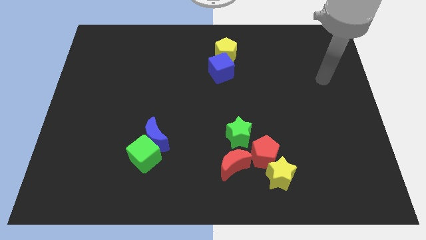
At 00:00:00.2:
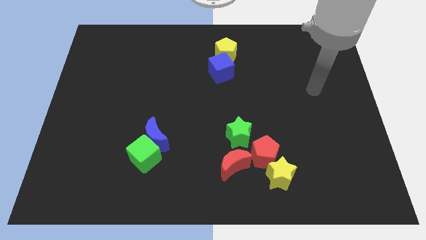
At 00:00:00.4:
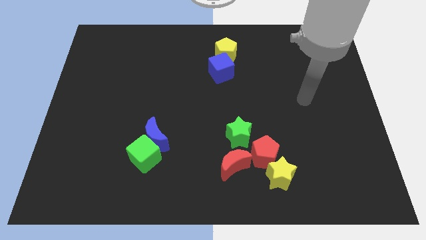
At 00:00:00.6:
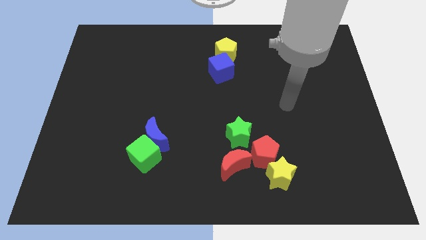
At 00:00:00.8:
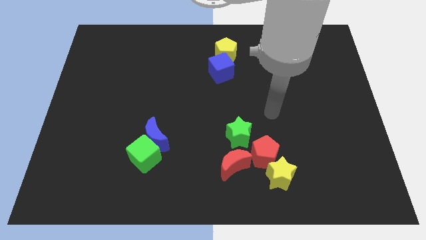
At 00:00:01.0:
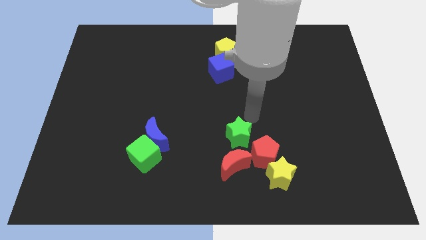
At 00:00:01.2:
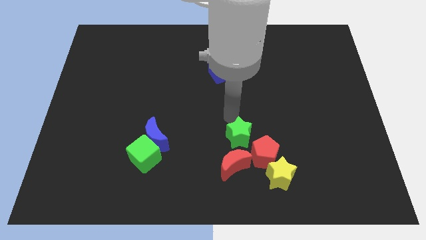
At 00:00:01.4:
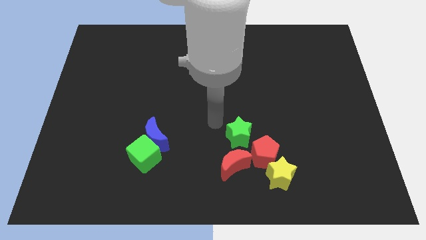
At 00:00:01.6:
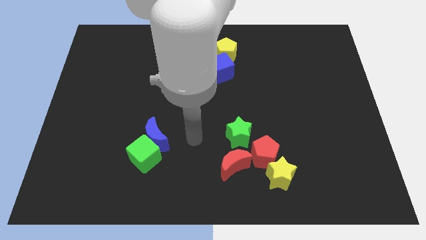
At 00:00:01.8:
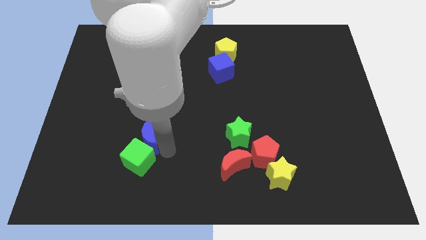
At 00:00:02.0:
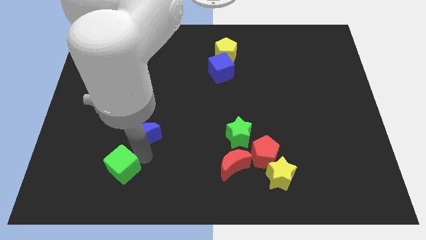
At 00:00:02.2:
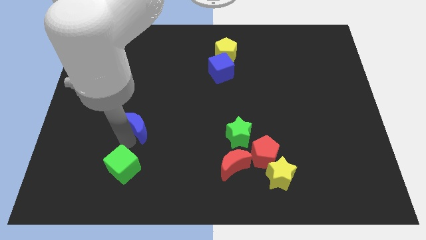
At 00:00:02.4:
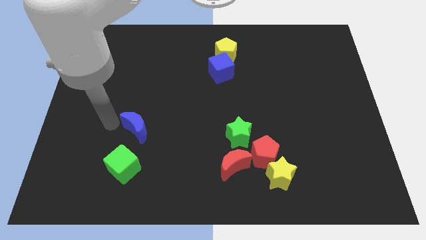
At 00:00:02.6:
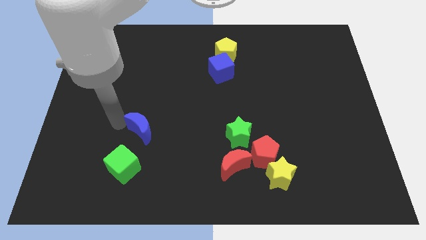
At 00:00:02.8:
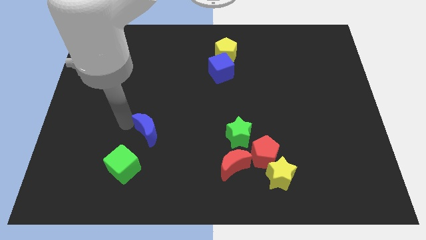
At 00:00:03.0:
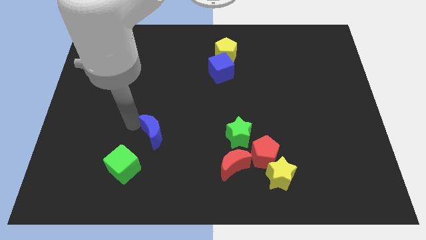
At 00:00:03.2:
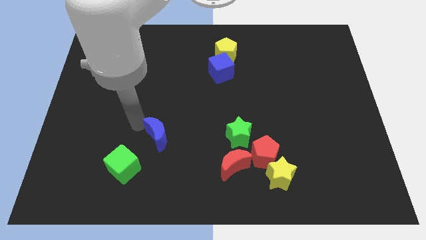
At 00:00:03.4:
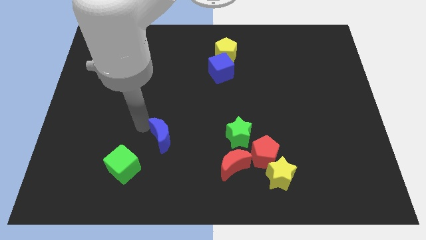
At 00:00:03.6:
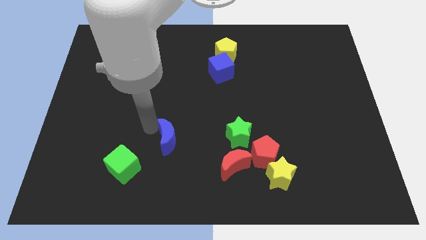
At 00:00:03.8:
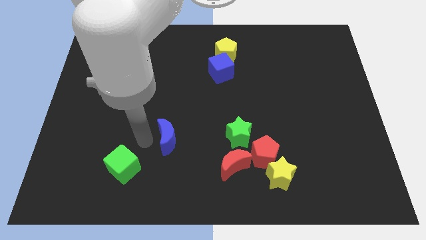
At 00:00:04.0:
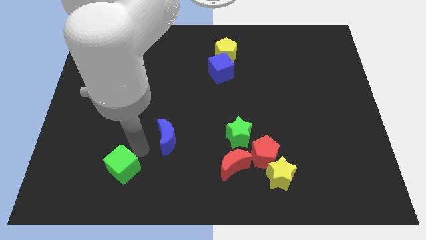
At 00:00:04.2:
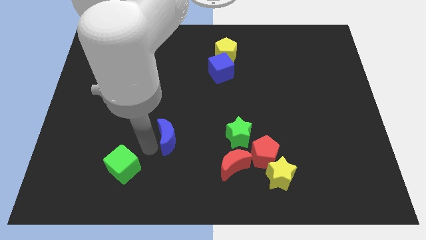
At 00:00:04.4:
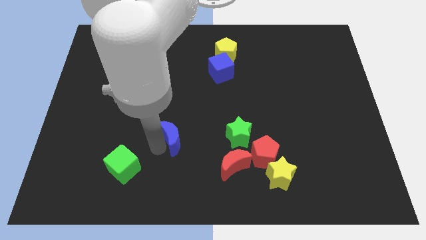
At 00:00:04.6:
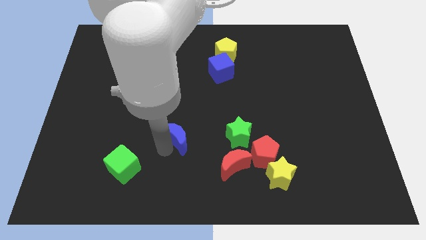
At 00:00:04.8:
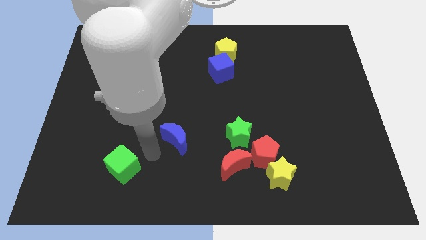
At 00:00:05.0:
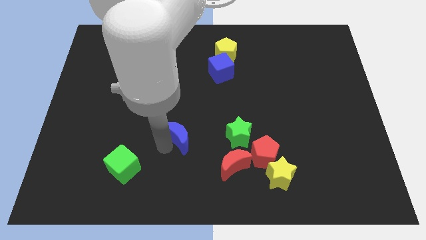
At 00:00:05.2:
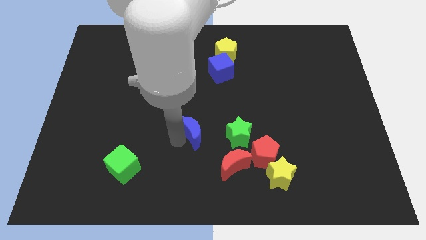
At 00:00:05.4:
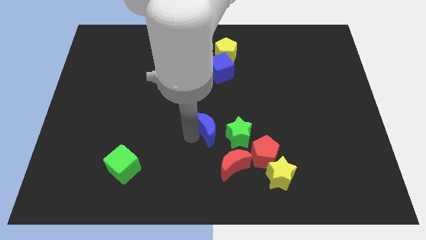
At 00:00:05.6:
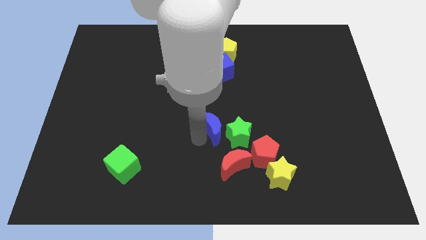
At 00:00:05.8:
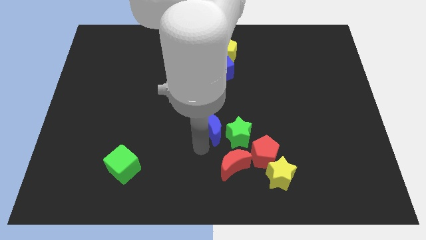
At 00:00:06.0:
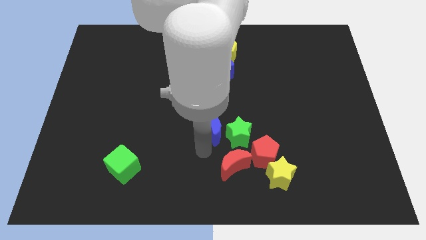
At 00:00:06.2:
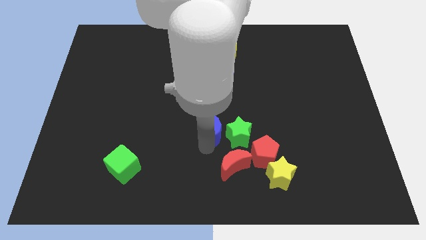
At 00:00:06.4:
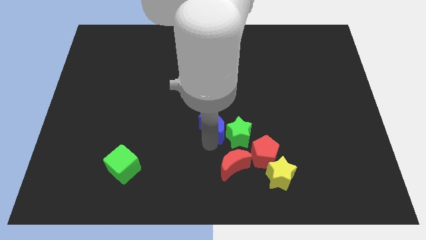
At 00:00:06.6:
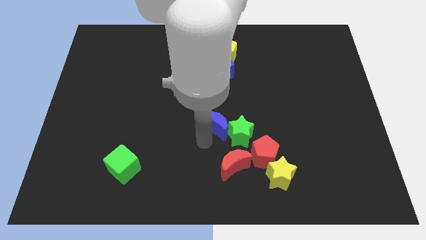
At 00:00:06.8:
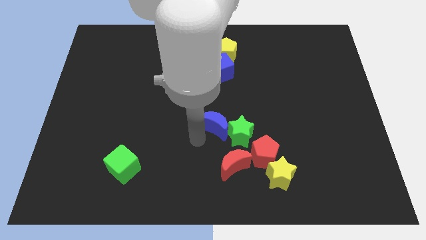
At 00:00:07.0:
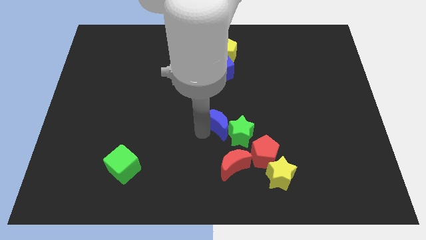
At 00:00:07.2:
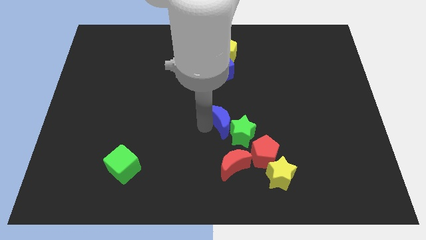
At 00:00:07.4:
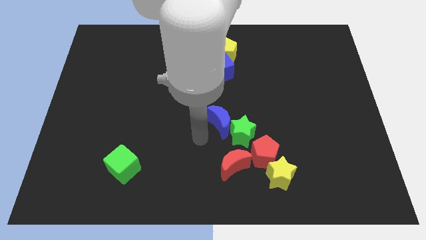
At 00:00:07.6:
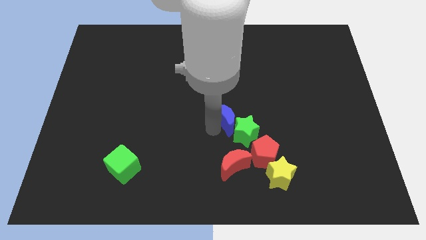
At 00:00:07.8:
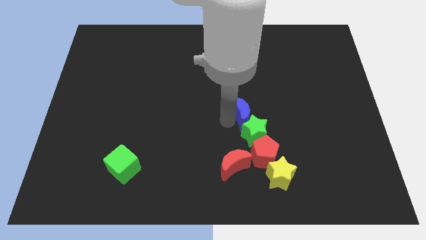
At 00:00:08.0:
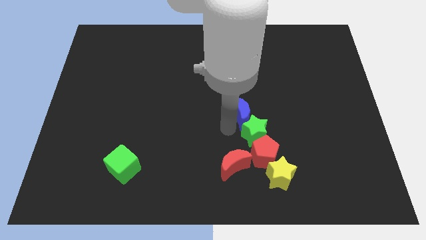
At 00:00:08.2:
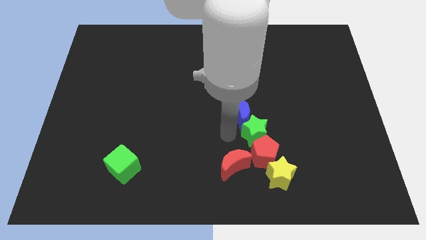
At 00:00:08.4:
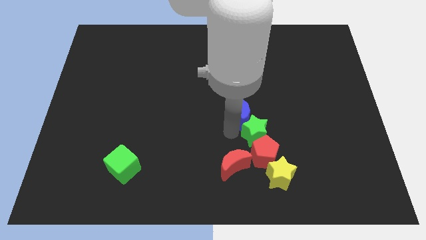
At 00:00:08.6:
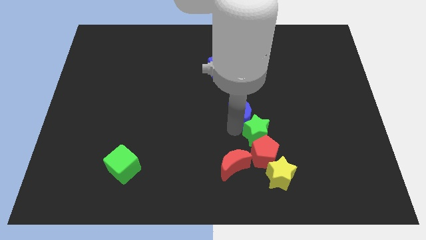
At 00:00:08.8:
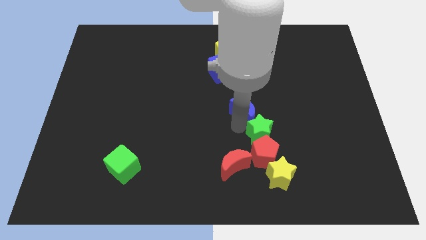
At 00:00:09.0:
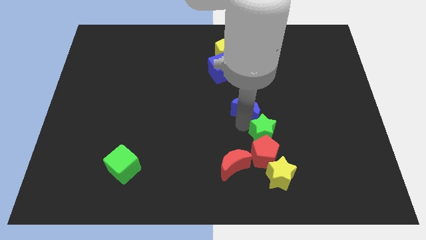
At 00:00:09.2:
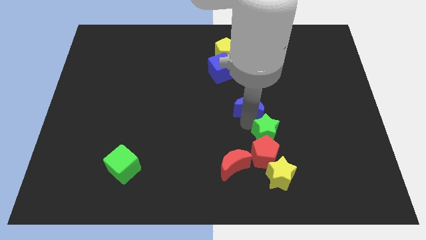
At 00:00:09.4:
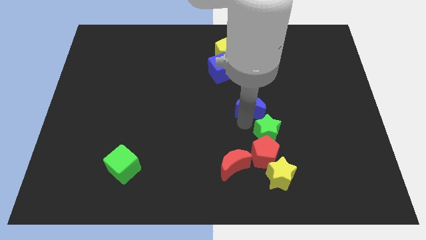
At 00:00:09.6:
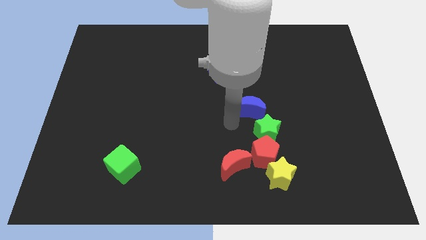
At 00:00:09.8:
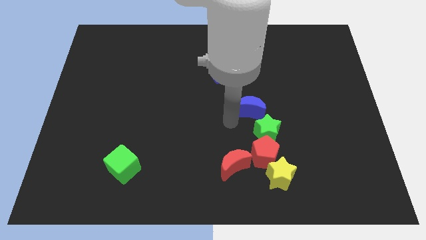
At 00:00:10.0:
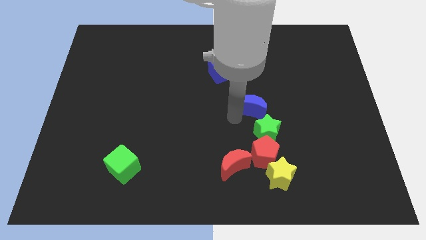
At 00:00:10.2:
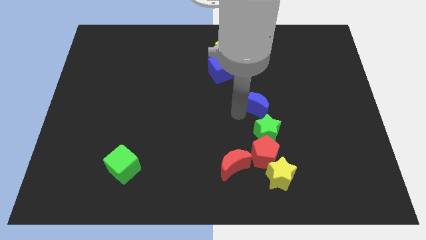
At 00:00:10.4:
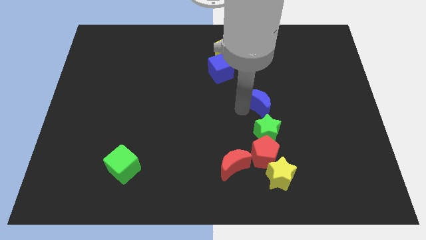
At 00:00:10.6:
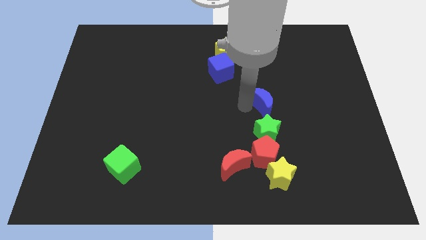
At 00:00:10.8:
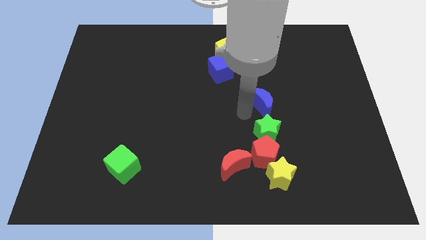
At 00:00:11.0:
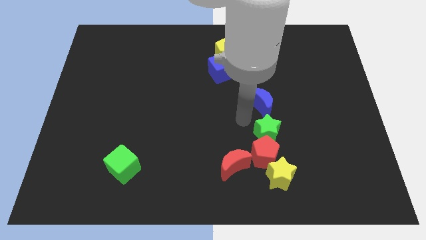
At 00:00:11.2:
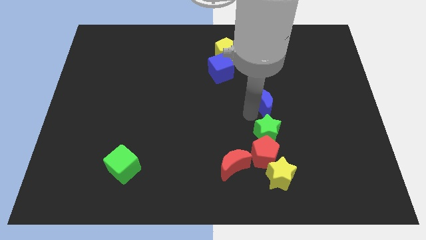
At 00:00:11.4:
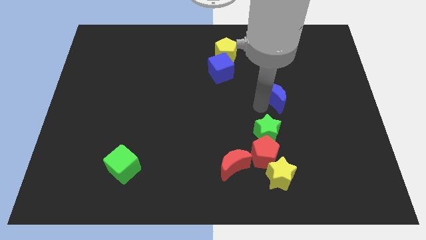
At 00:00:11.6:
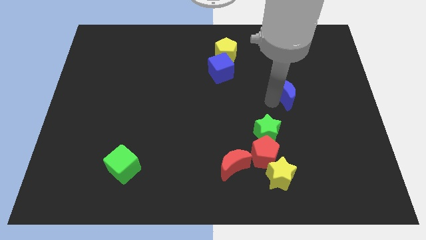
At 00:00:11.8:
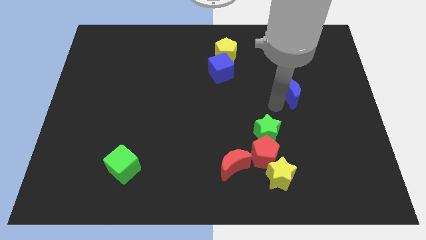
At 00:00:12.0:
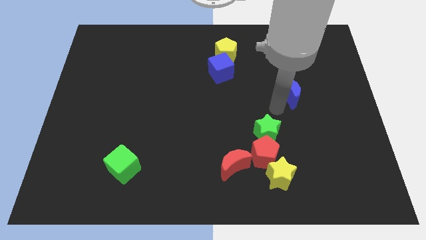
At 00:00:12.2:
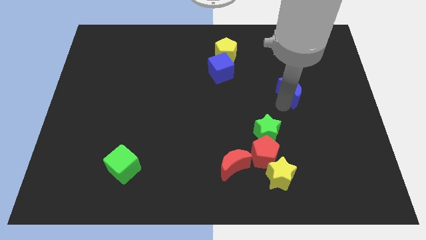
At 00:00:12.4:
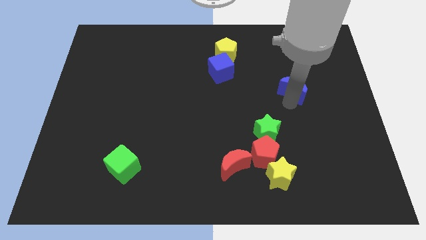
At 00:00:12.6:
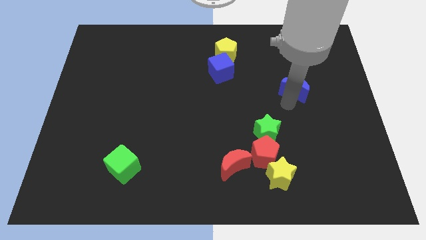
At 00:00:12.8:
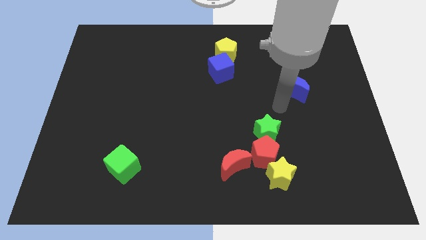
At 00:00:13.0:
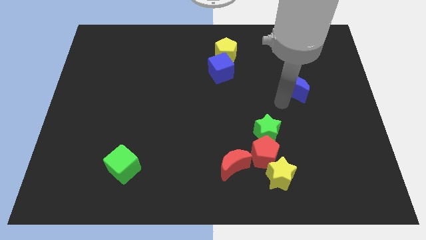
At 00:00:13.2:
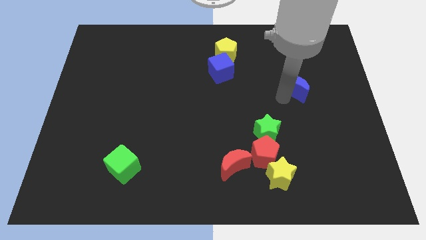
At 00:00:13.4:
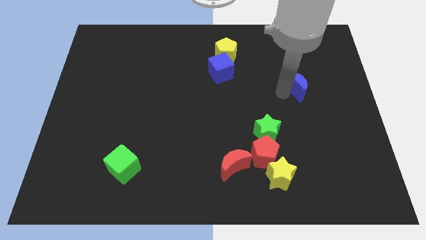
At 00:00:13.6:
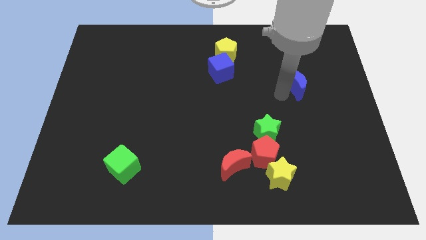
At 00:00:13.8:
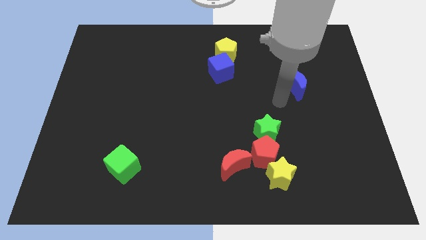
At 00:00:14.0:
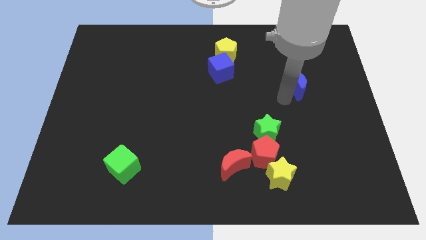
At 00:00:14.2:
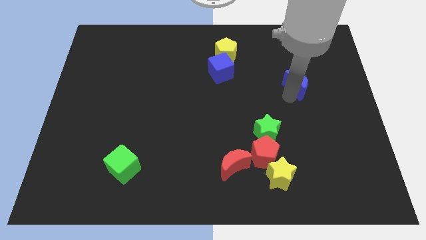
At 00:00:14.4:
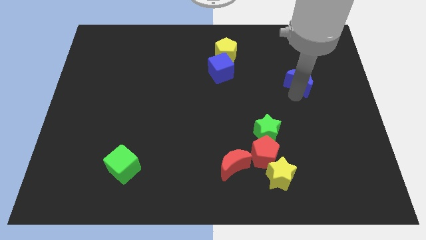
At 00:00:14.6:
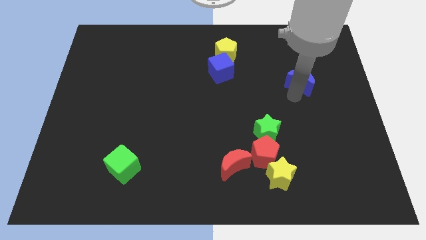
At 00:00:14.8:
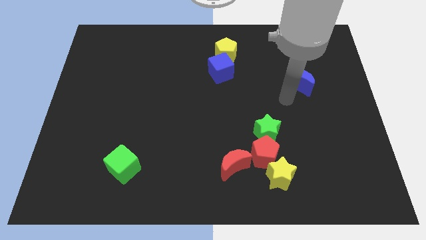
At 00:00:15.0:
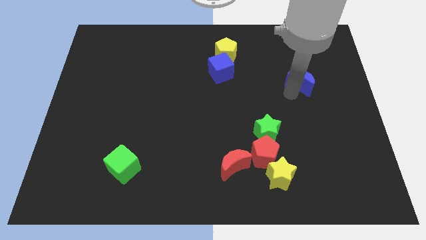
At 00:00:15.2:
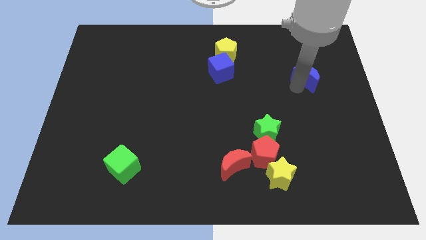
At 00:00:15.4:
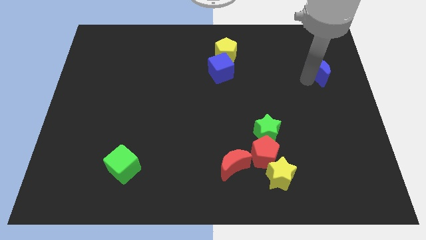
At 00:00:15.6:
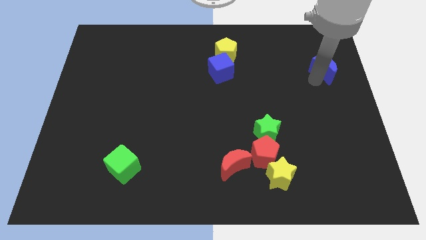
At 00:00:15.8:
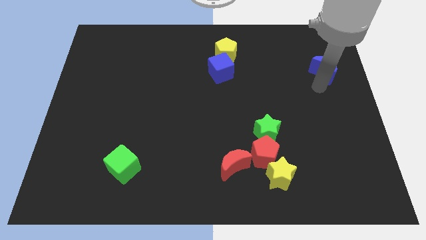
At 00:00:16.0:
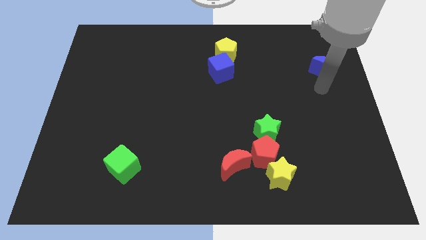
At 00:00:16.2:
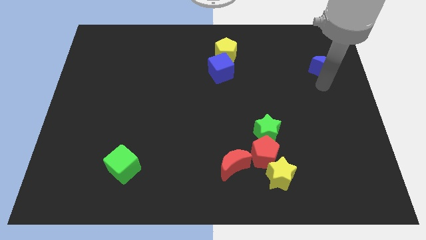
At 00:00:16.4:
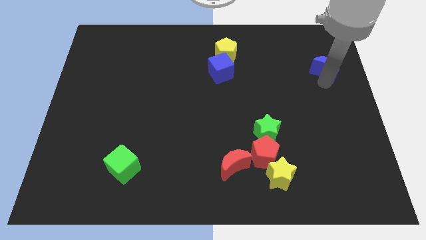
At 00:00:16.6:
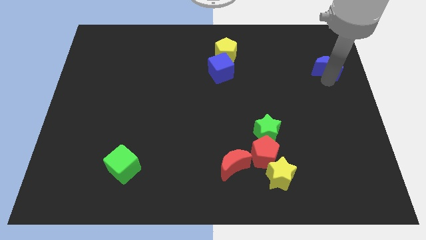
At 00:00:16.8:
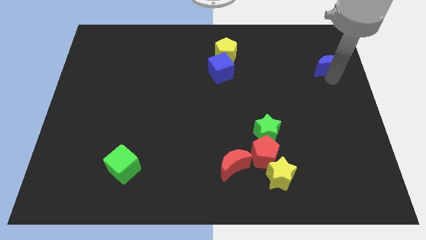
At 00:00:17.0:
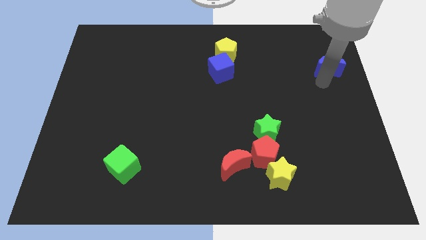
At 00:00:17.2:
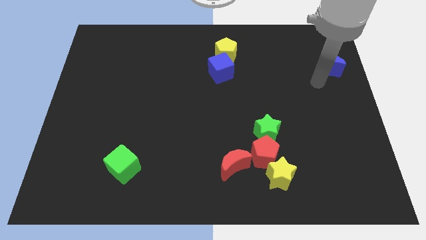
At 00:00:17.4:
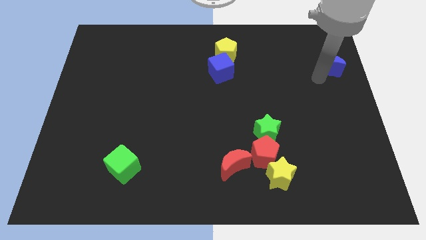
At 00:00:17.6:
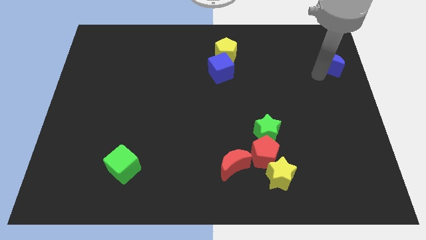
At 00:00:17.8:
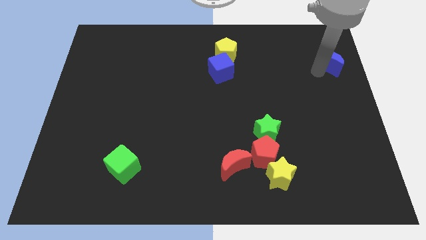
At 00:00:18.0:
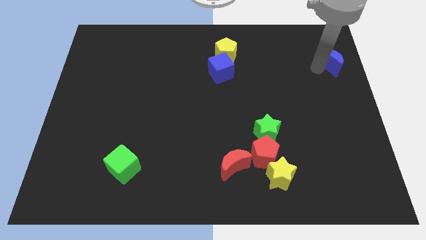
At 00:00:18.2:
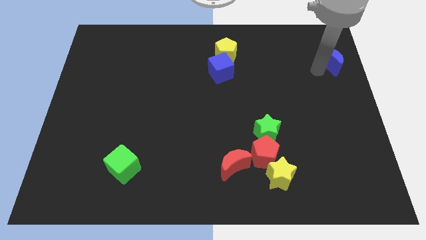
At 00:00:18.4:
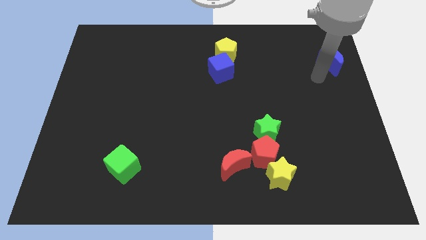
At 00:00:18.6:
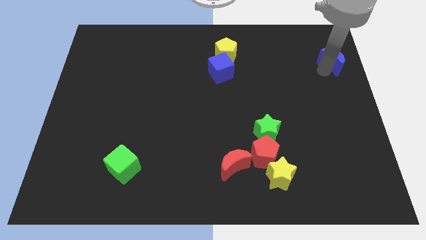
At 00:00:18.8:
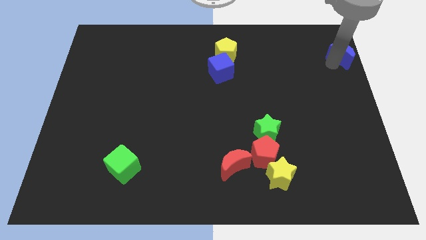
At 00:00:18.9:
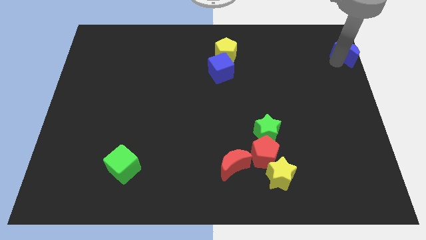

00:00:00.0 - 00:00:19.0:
push the blue moon to the top right corner
